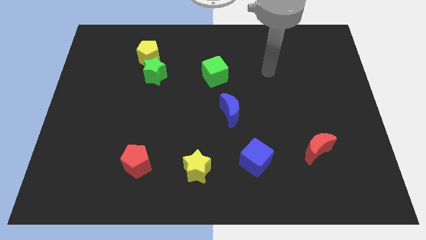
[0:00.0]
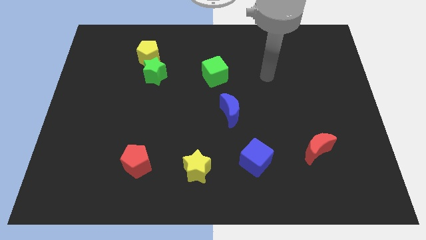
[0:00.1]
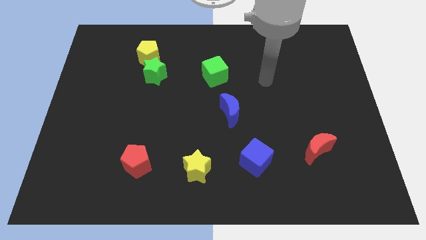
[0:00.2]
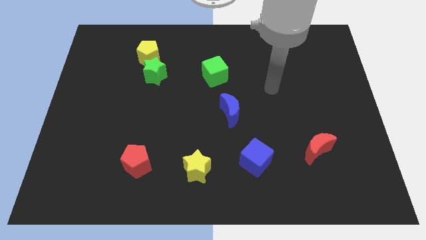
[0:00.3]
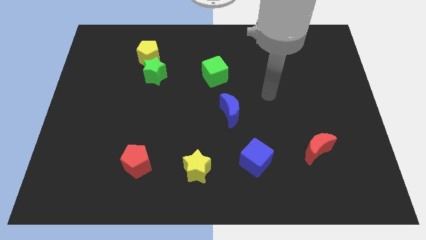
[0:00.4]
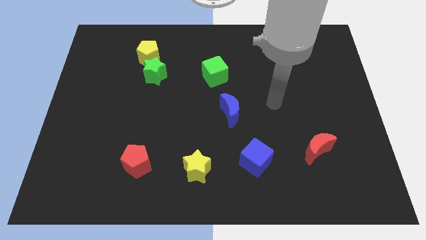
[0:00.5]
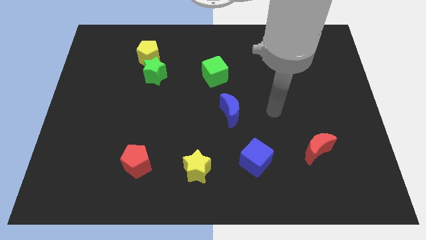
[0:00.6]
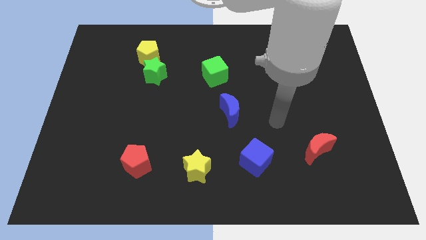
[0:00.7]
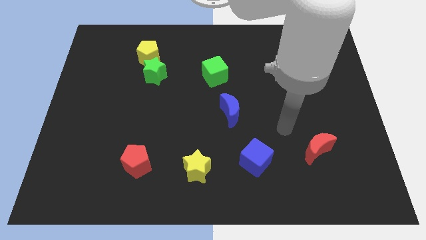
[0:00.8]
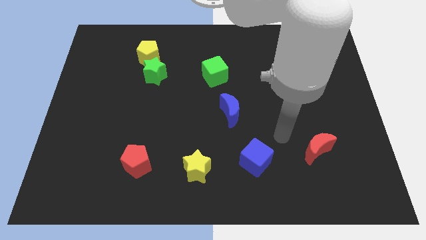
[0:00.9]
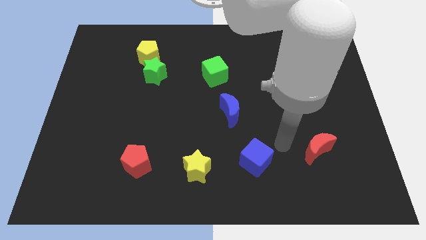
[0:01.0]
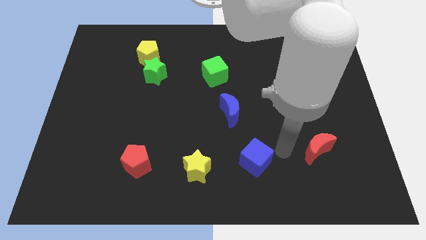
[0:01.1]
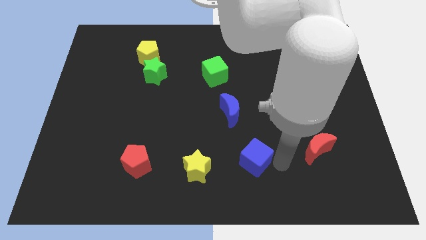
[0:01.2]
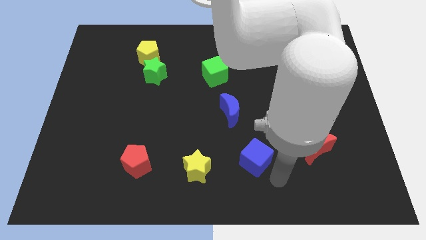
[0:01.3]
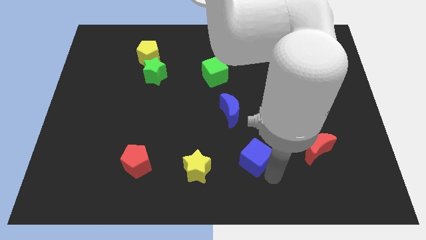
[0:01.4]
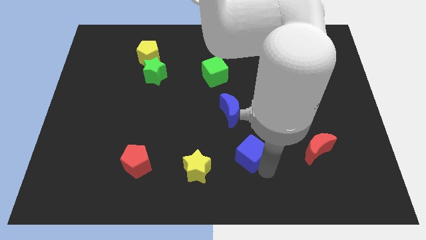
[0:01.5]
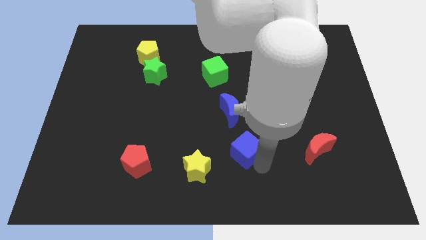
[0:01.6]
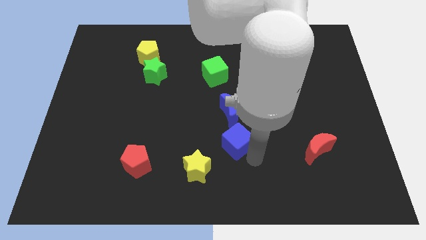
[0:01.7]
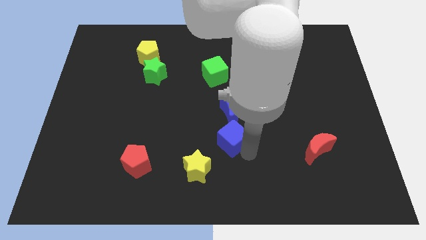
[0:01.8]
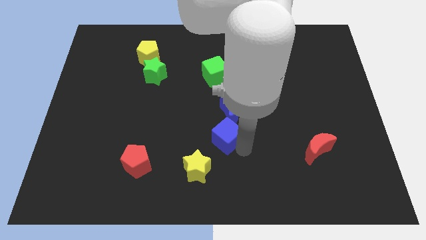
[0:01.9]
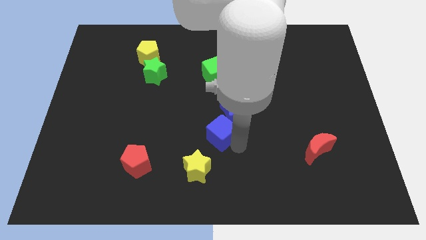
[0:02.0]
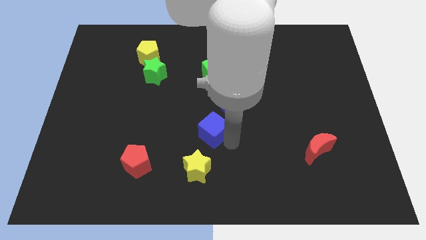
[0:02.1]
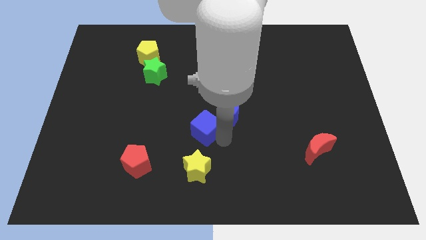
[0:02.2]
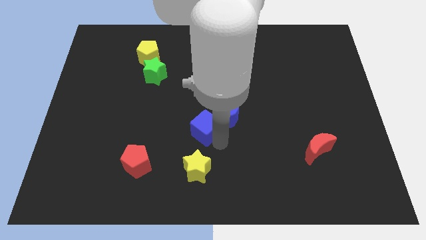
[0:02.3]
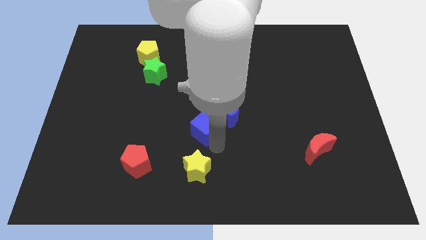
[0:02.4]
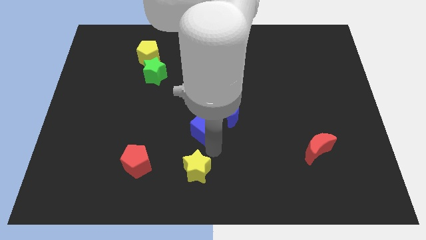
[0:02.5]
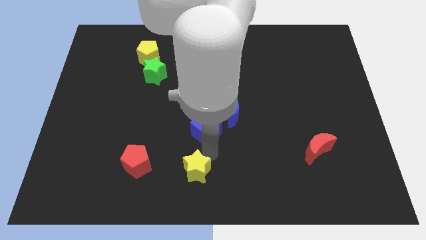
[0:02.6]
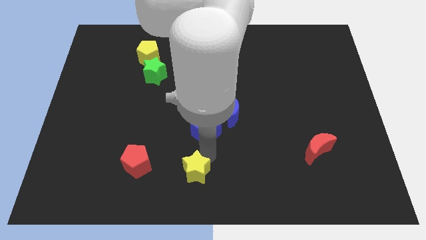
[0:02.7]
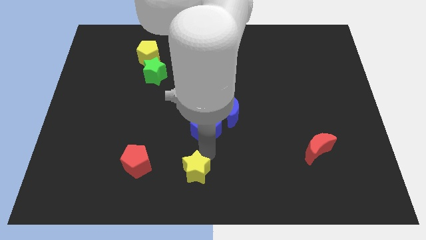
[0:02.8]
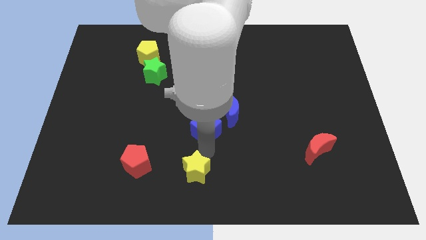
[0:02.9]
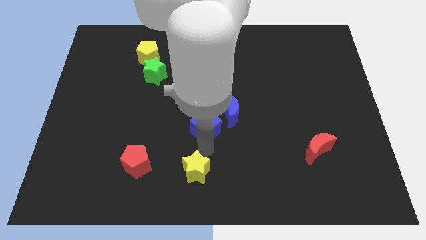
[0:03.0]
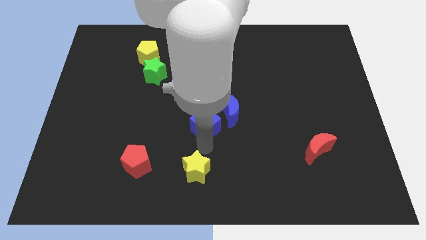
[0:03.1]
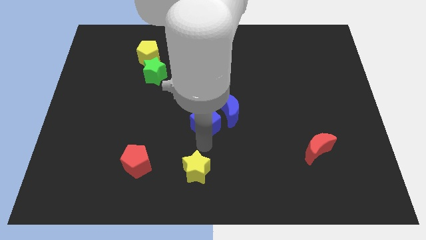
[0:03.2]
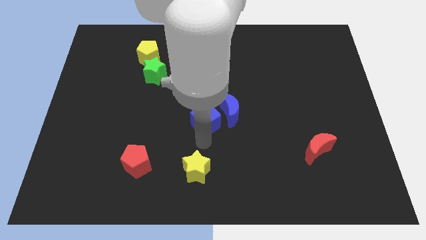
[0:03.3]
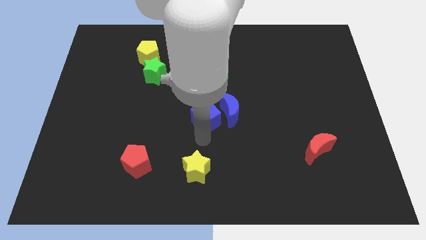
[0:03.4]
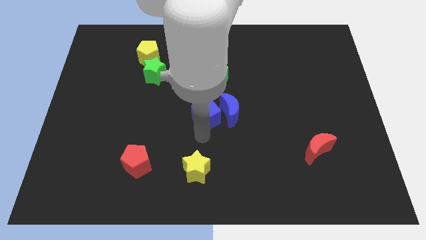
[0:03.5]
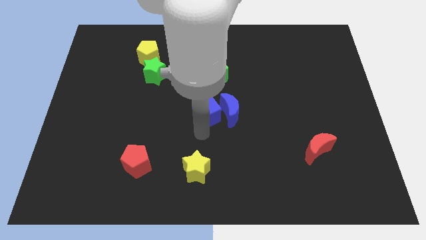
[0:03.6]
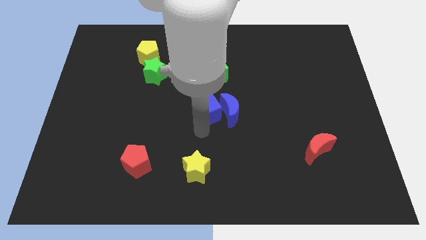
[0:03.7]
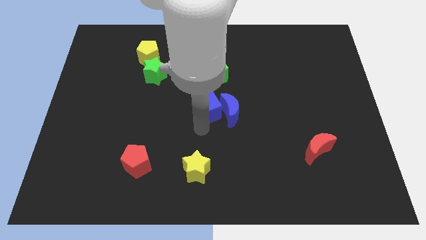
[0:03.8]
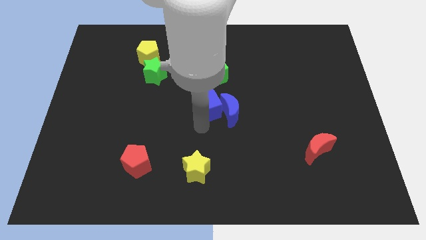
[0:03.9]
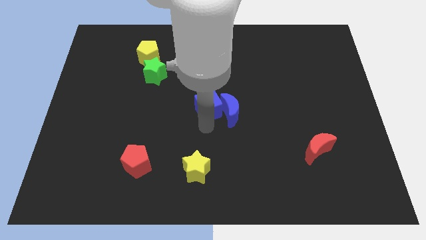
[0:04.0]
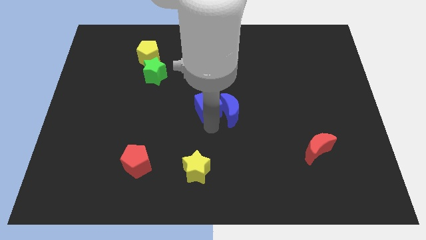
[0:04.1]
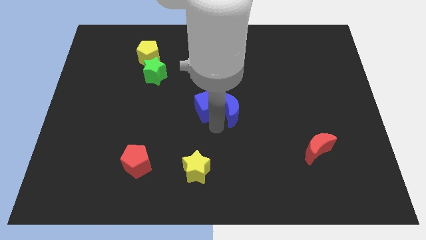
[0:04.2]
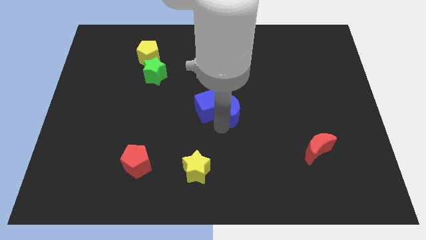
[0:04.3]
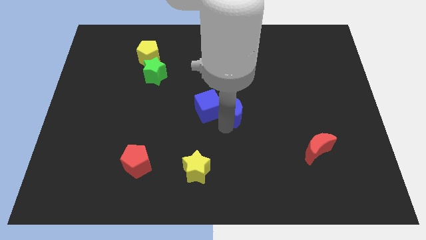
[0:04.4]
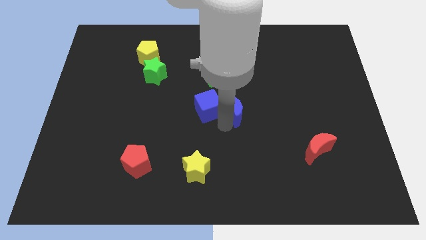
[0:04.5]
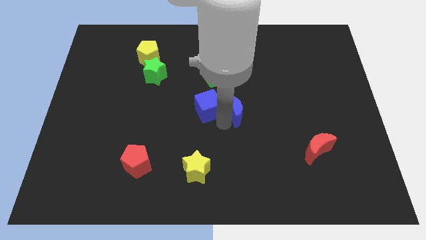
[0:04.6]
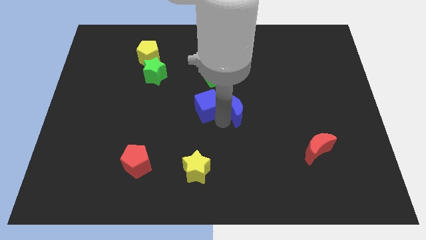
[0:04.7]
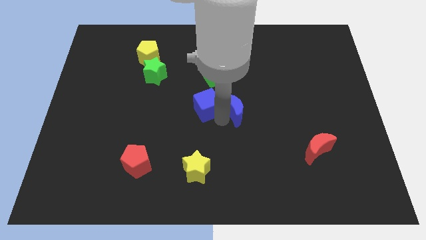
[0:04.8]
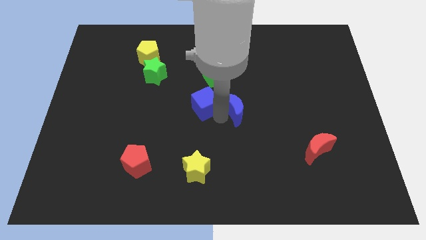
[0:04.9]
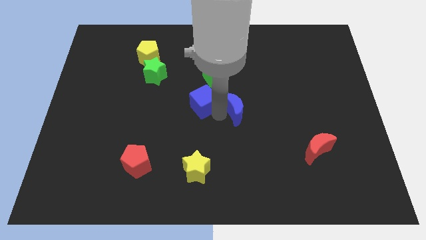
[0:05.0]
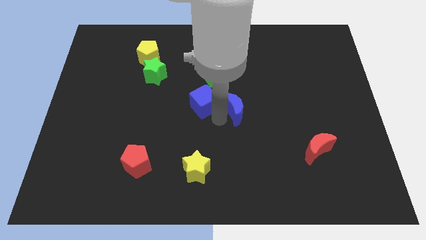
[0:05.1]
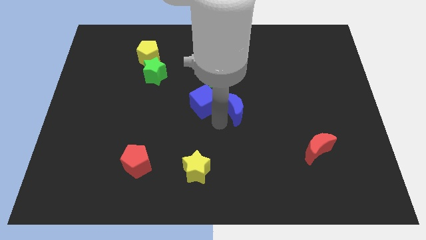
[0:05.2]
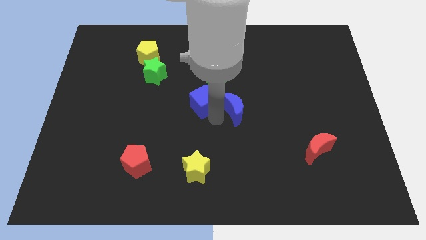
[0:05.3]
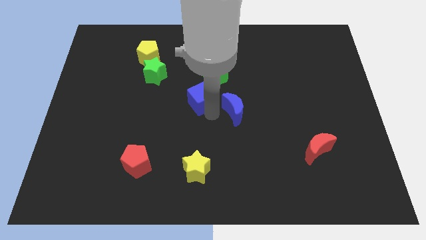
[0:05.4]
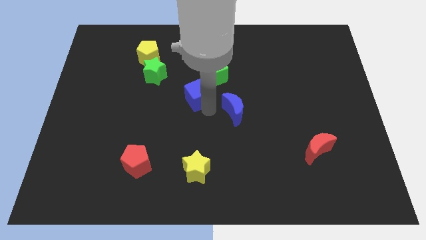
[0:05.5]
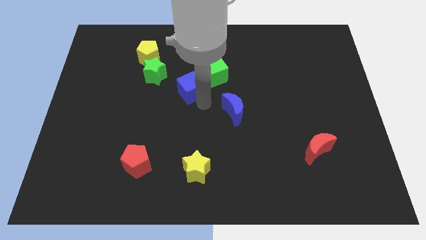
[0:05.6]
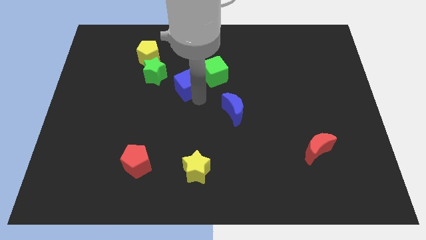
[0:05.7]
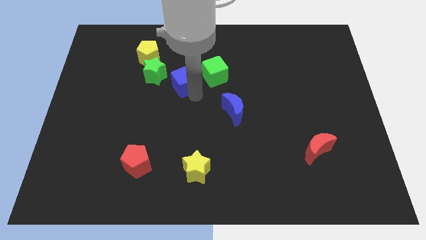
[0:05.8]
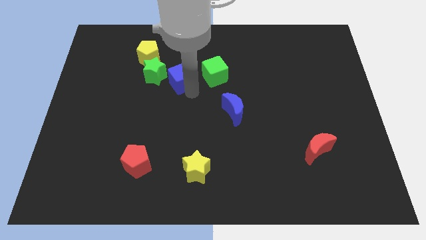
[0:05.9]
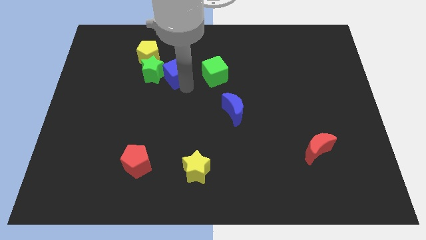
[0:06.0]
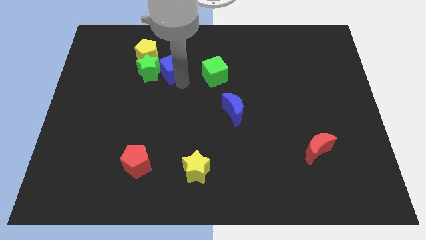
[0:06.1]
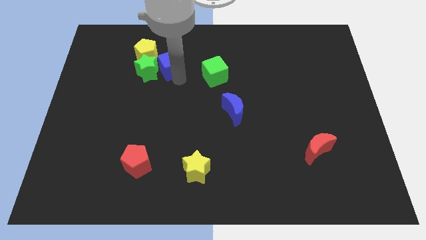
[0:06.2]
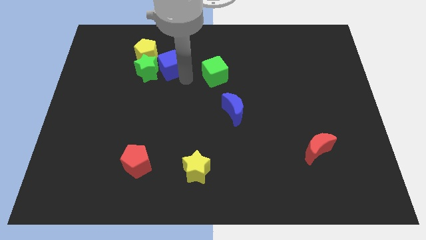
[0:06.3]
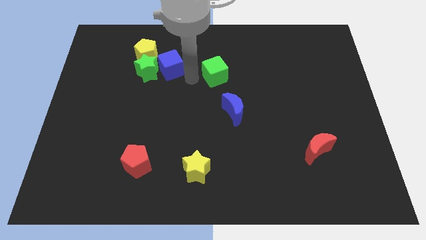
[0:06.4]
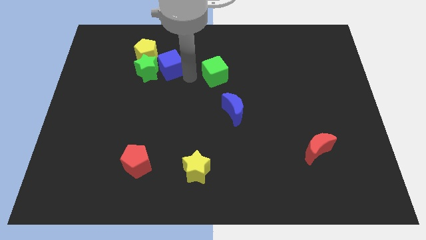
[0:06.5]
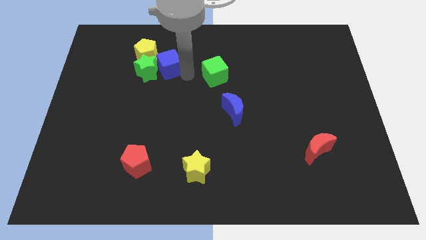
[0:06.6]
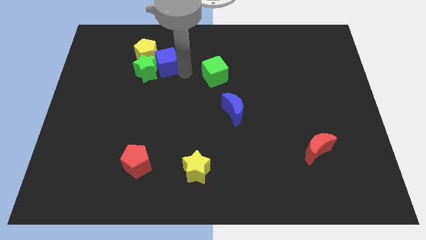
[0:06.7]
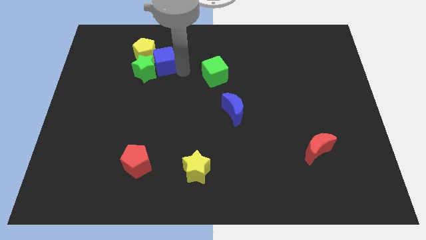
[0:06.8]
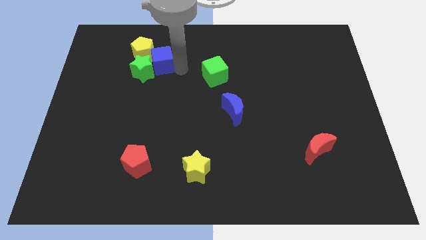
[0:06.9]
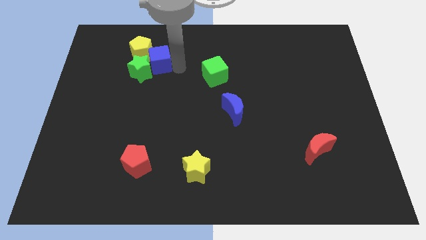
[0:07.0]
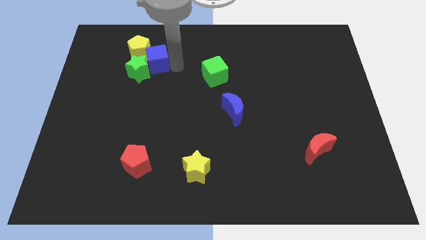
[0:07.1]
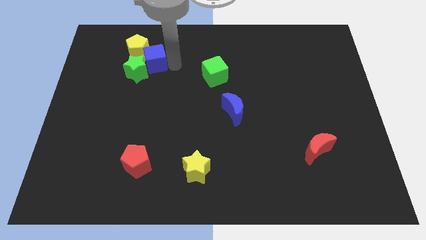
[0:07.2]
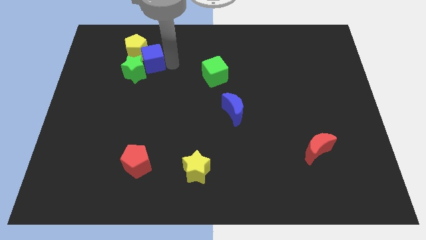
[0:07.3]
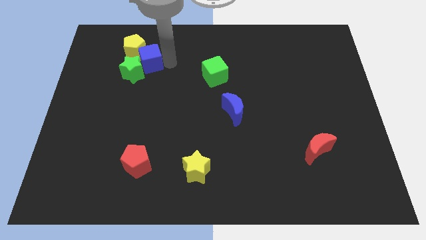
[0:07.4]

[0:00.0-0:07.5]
move the blue cube towards the yellow pentagon
